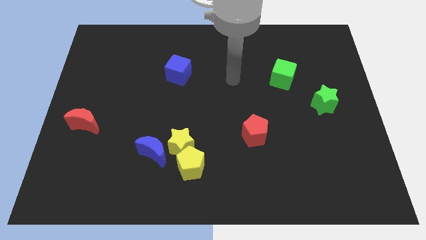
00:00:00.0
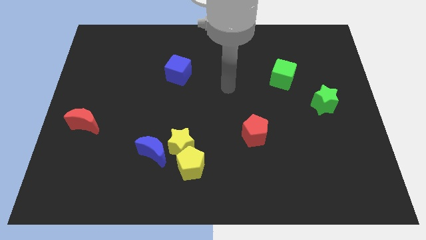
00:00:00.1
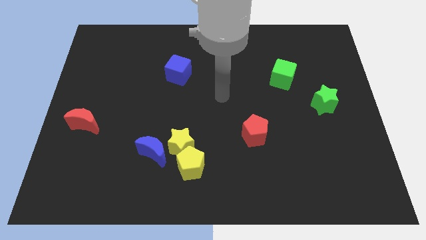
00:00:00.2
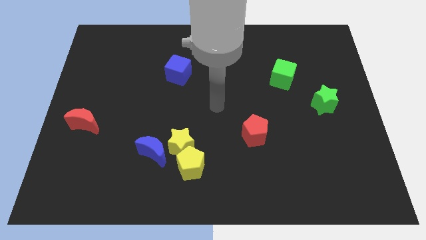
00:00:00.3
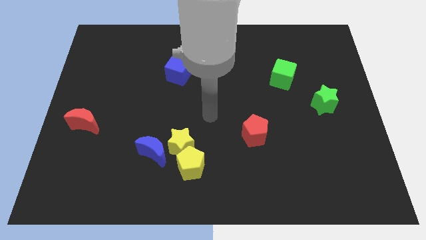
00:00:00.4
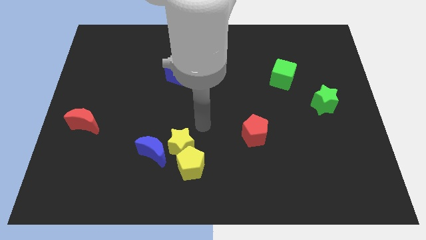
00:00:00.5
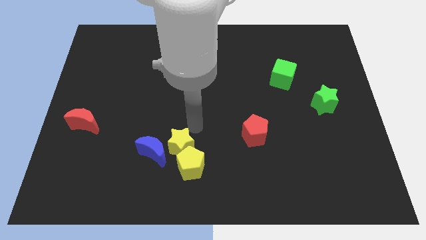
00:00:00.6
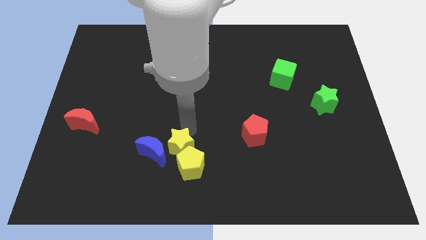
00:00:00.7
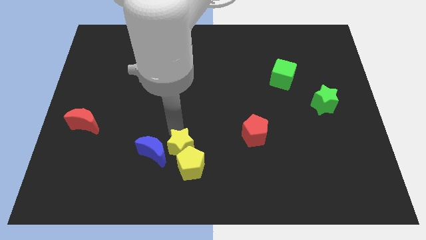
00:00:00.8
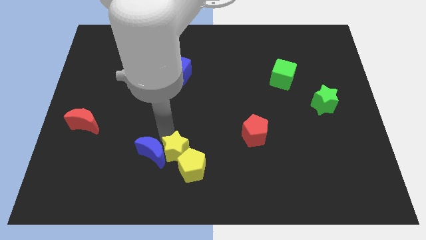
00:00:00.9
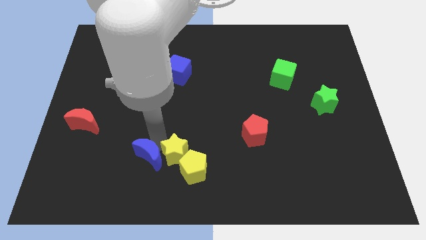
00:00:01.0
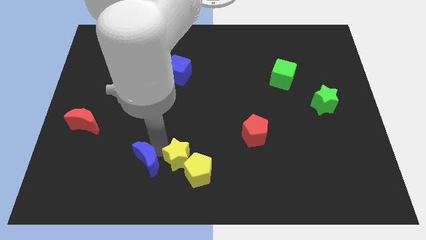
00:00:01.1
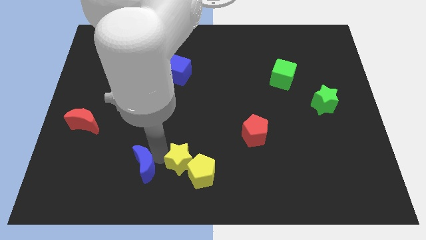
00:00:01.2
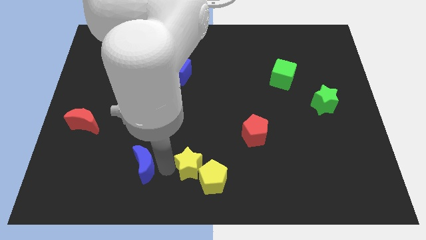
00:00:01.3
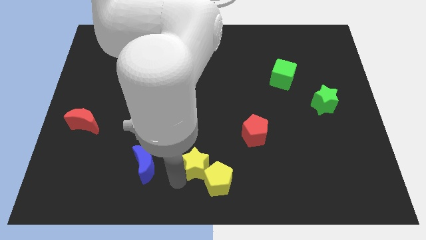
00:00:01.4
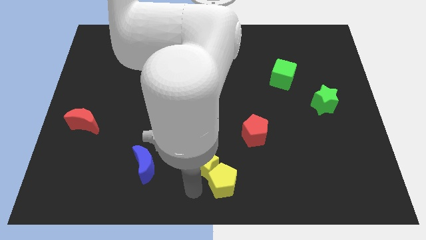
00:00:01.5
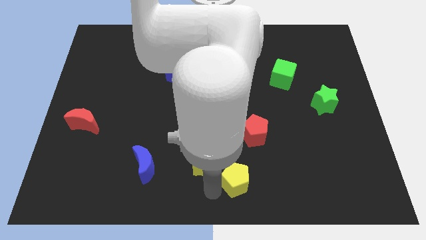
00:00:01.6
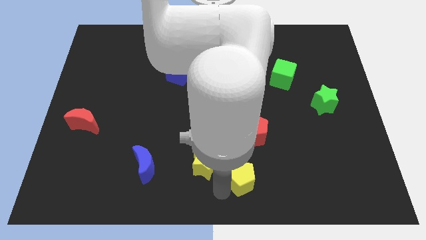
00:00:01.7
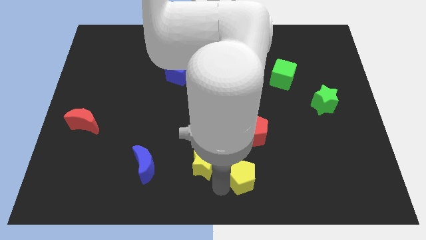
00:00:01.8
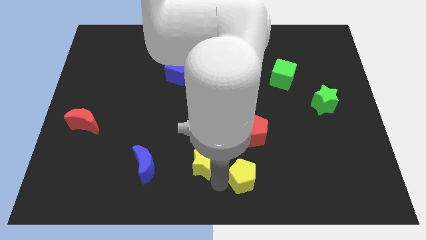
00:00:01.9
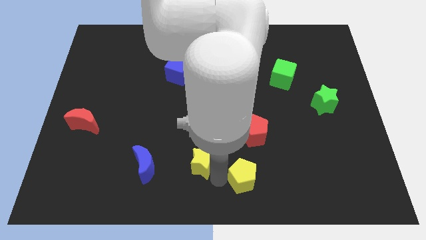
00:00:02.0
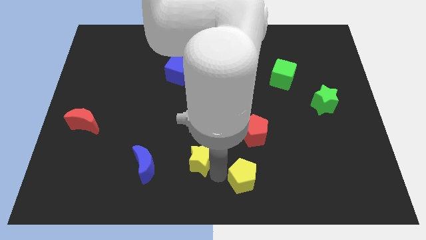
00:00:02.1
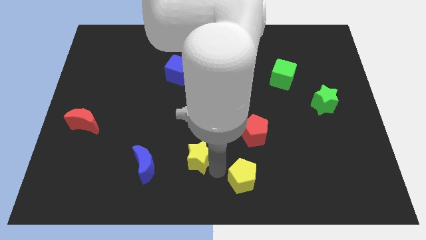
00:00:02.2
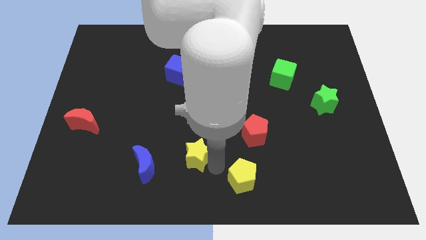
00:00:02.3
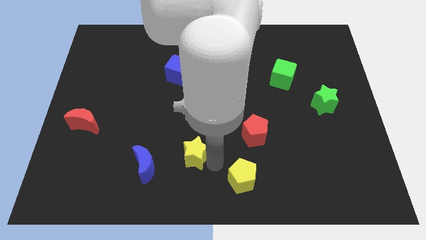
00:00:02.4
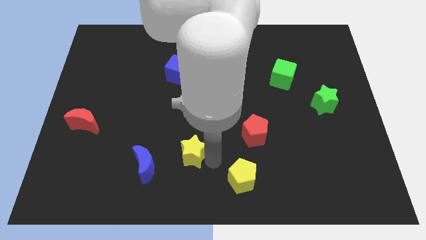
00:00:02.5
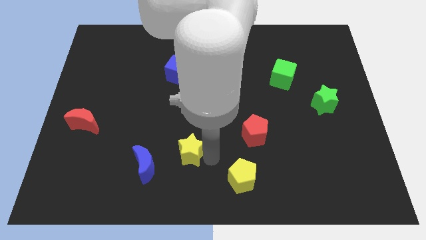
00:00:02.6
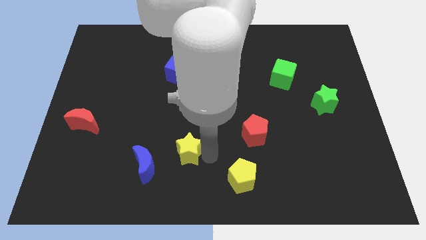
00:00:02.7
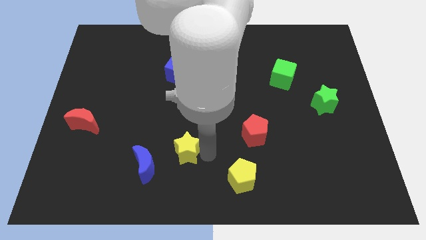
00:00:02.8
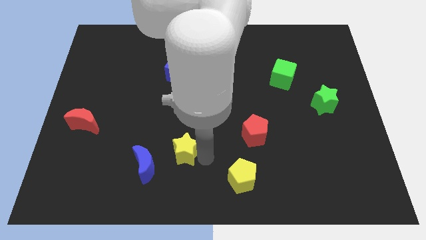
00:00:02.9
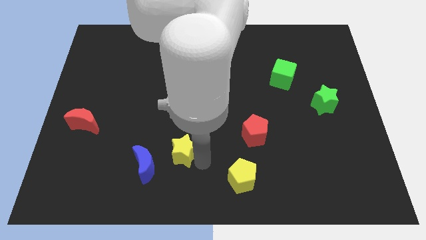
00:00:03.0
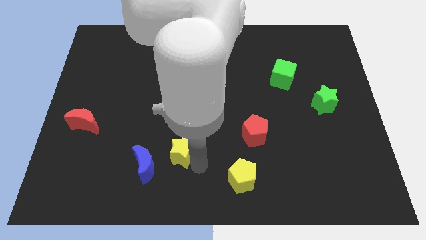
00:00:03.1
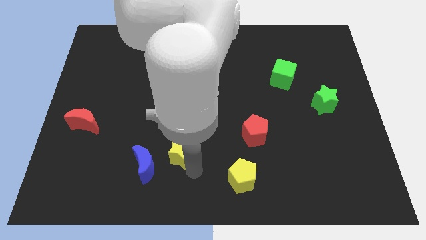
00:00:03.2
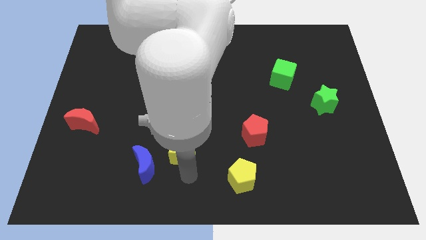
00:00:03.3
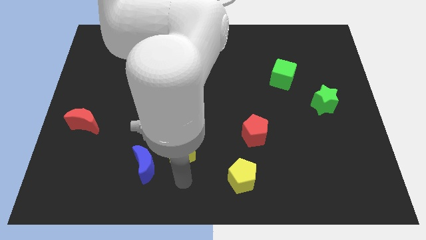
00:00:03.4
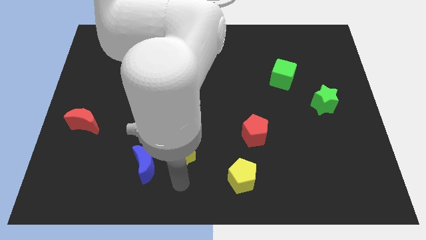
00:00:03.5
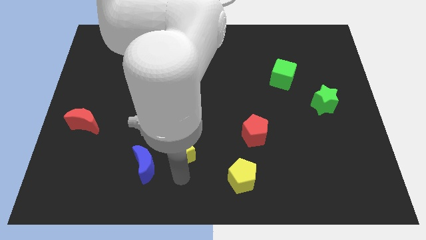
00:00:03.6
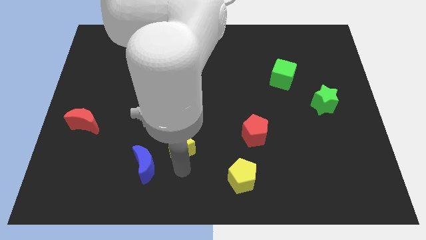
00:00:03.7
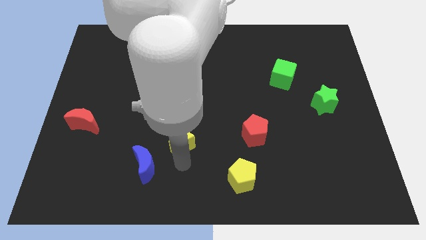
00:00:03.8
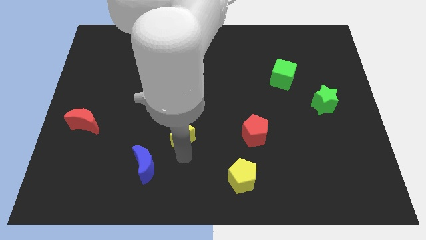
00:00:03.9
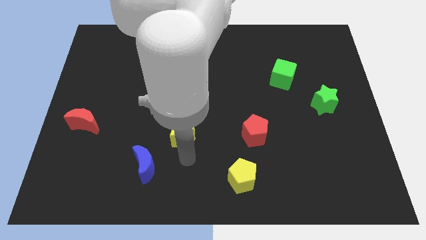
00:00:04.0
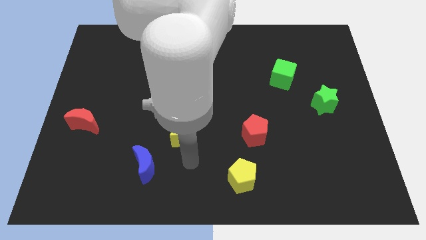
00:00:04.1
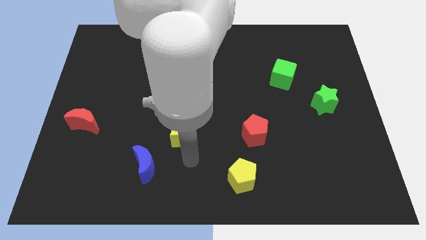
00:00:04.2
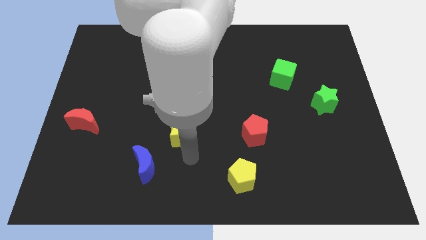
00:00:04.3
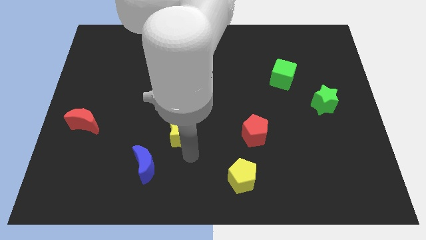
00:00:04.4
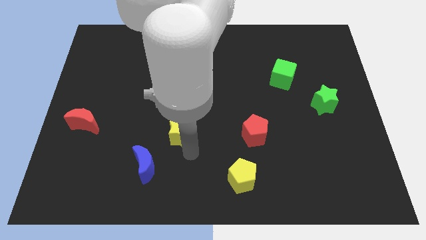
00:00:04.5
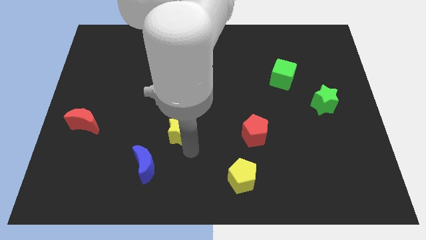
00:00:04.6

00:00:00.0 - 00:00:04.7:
separate the yellow star from the yellow pentagon and blue moon

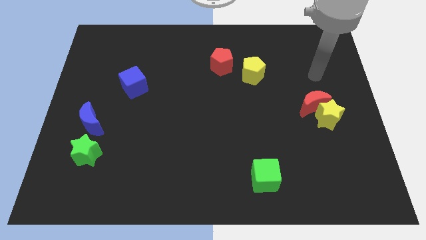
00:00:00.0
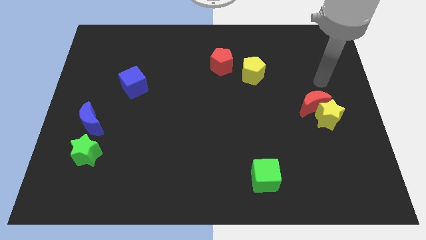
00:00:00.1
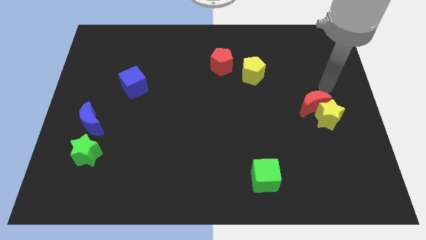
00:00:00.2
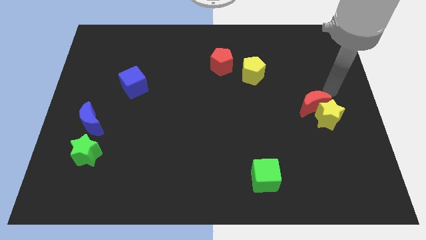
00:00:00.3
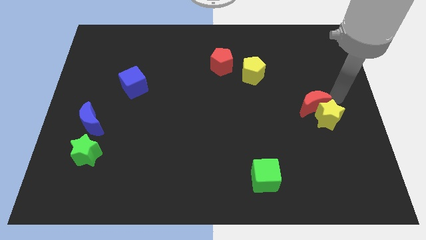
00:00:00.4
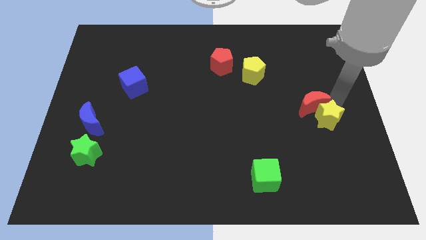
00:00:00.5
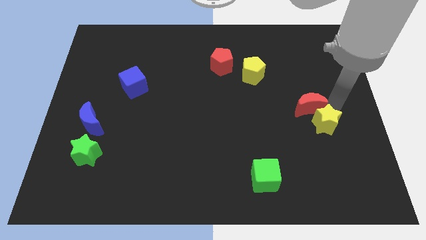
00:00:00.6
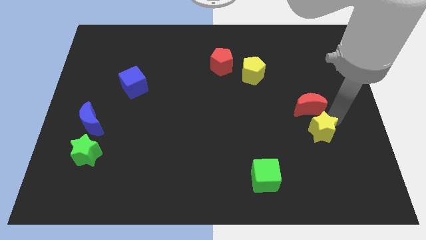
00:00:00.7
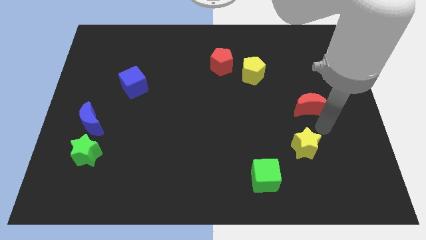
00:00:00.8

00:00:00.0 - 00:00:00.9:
move the red moon away from the yellow star

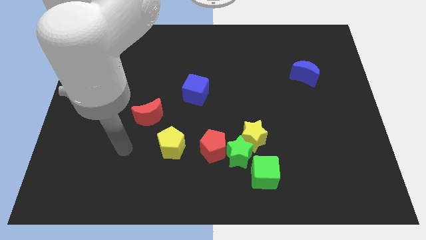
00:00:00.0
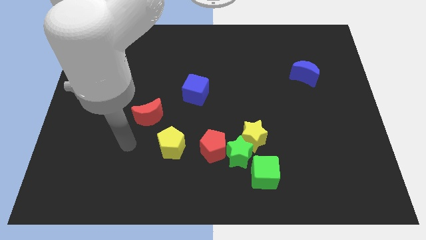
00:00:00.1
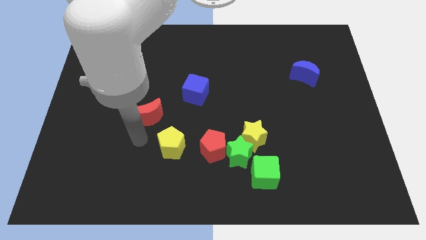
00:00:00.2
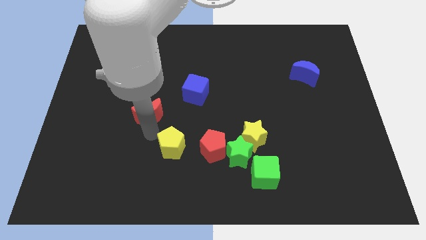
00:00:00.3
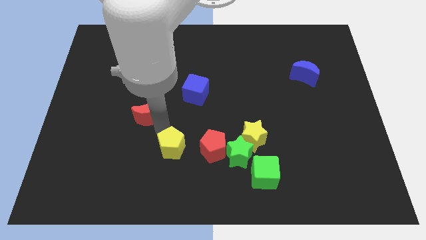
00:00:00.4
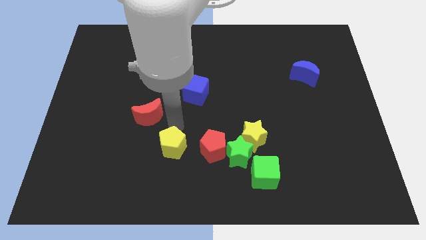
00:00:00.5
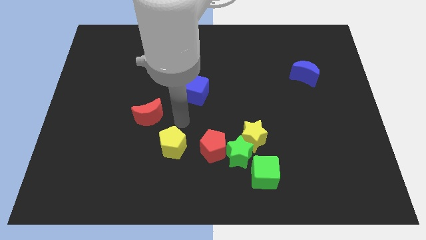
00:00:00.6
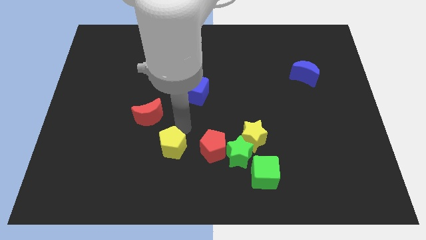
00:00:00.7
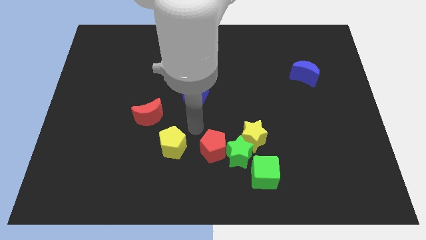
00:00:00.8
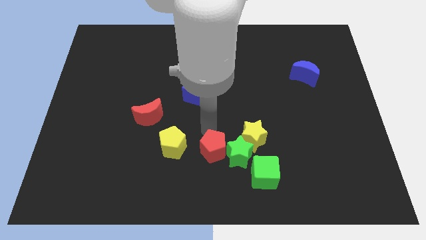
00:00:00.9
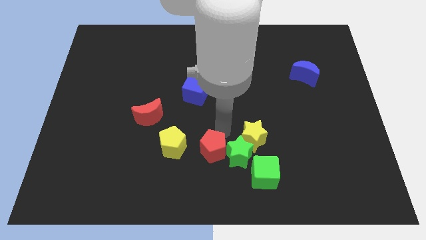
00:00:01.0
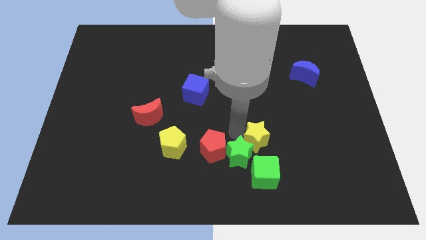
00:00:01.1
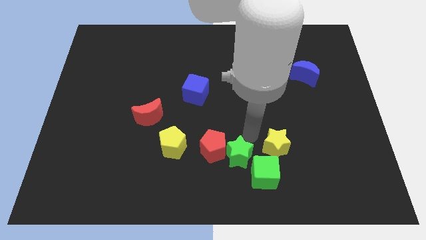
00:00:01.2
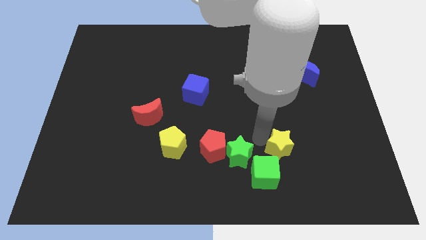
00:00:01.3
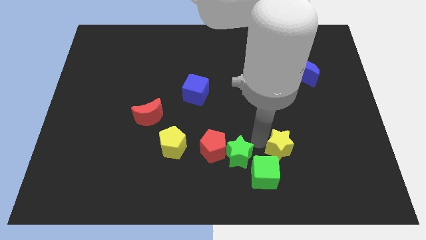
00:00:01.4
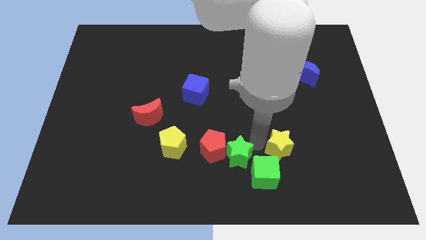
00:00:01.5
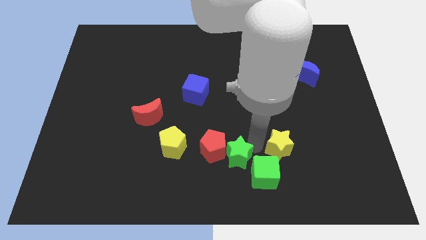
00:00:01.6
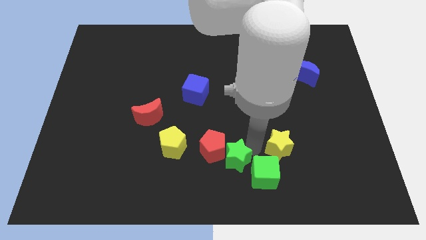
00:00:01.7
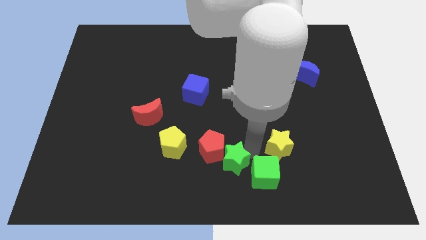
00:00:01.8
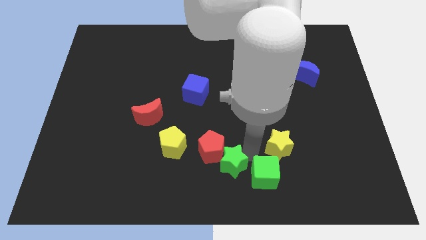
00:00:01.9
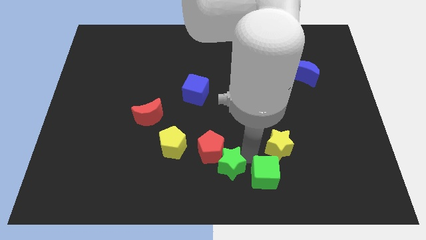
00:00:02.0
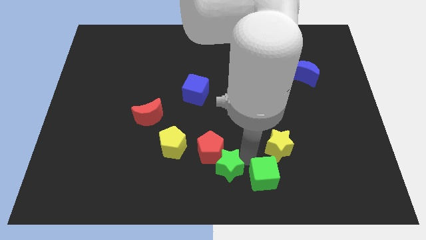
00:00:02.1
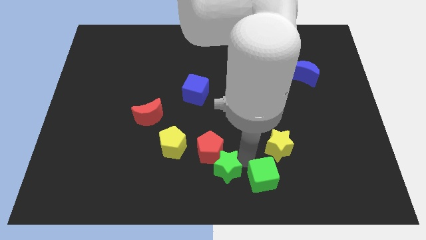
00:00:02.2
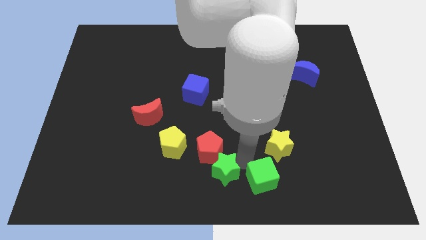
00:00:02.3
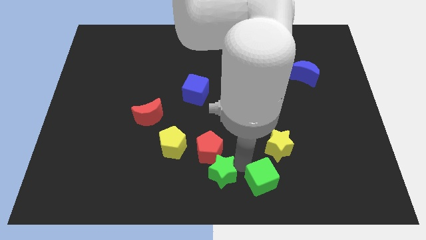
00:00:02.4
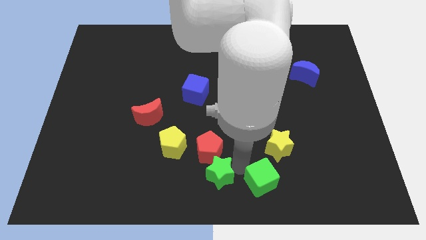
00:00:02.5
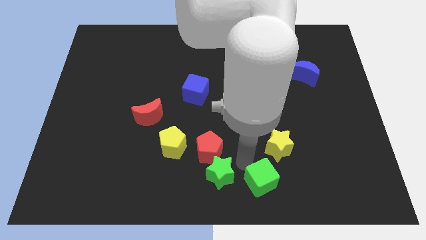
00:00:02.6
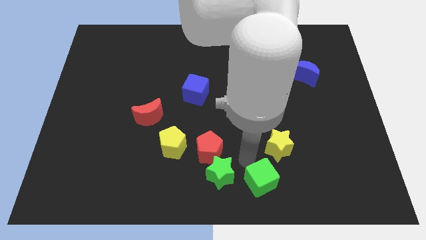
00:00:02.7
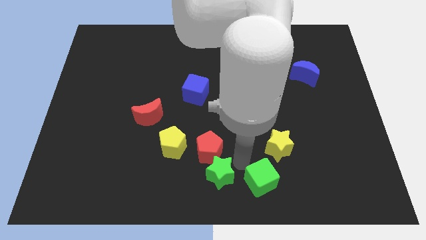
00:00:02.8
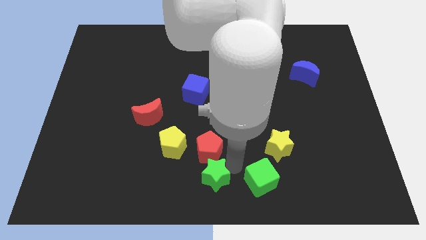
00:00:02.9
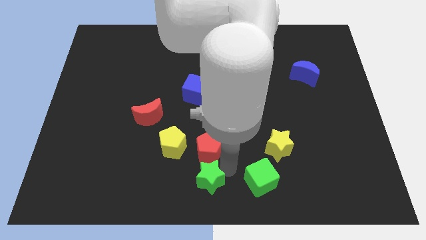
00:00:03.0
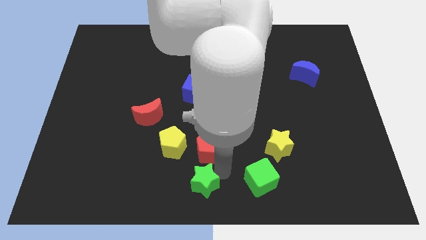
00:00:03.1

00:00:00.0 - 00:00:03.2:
pull the green star apart from the red pentagon, yellow star, and green cube

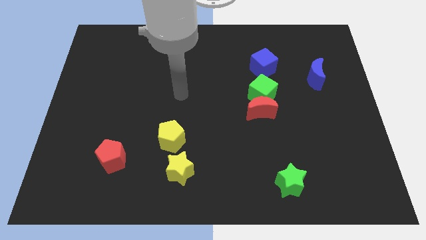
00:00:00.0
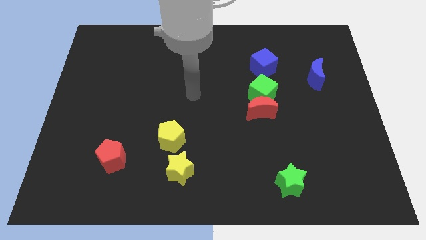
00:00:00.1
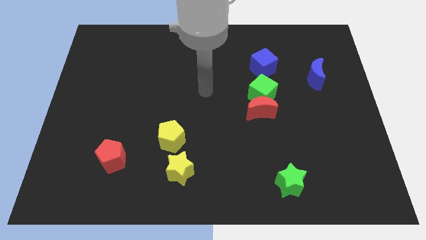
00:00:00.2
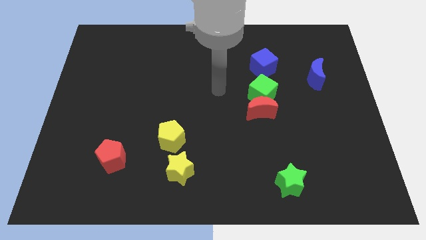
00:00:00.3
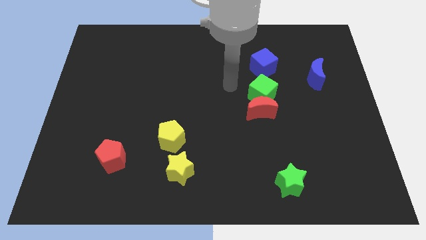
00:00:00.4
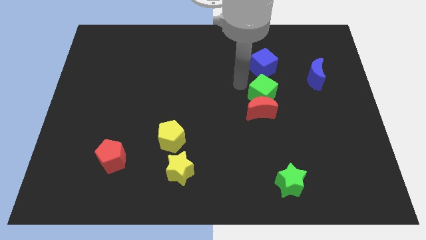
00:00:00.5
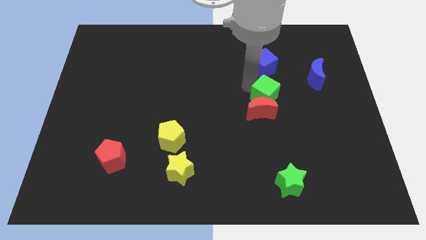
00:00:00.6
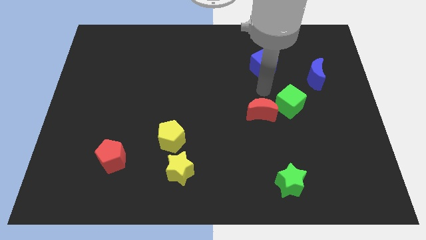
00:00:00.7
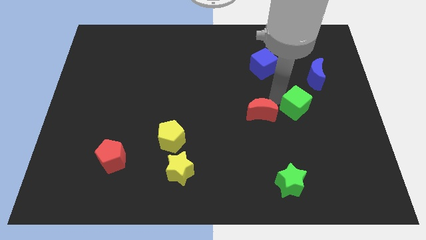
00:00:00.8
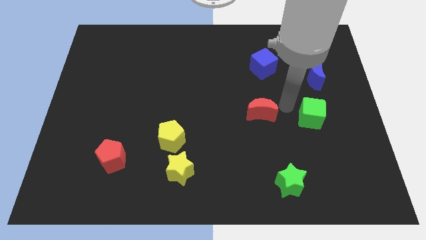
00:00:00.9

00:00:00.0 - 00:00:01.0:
move the red moon away from the green cube
